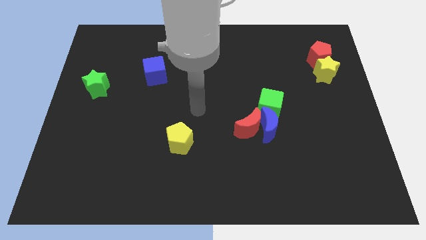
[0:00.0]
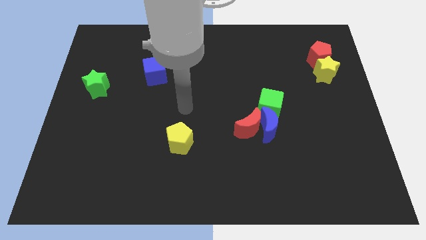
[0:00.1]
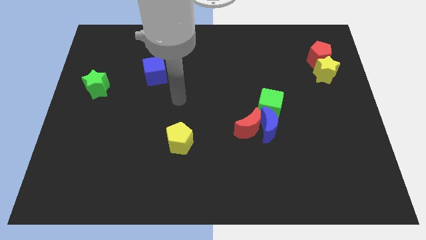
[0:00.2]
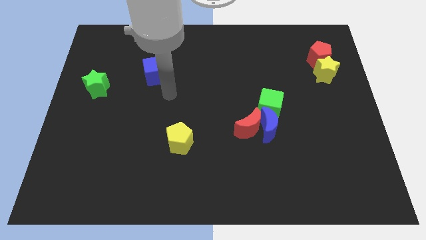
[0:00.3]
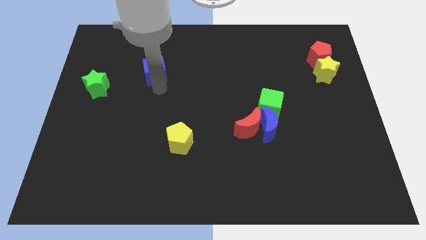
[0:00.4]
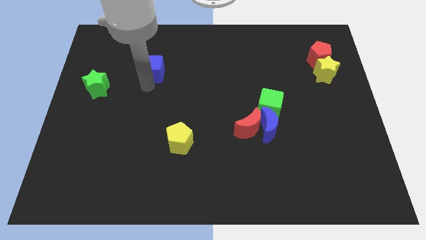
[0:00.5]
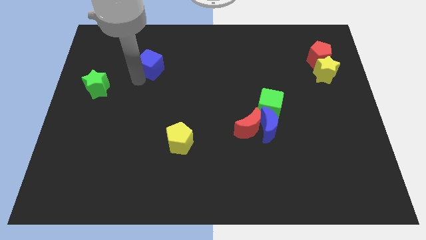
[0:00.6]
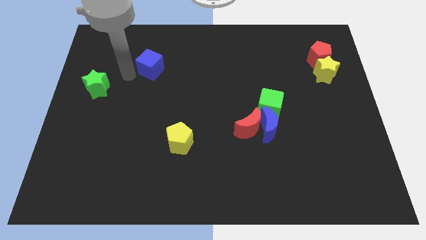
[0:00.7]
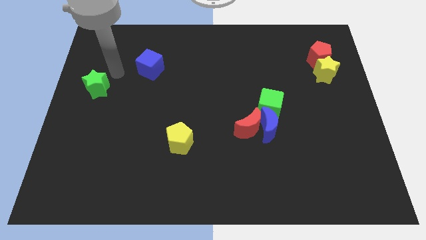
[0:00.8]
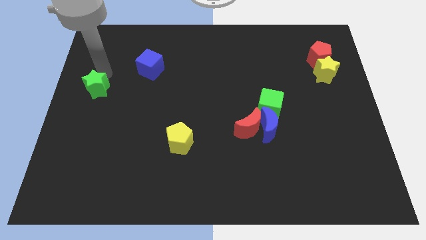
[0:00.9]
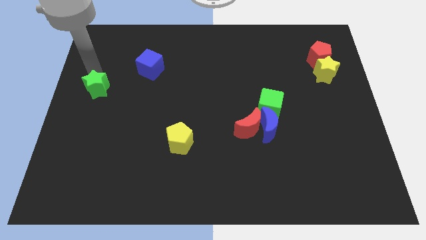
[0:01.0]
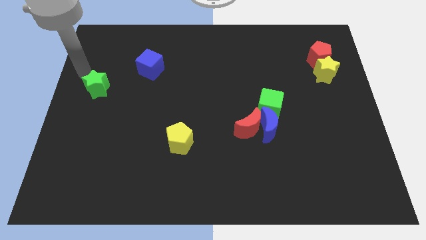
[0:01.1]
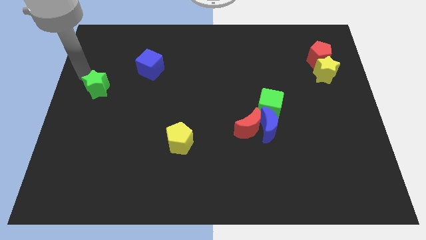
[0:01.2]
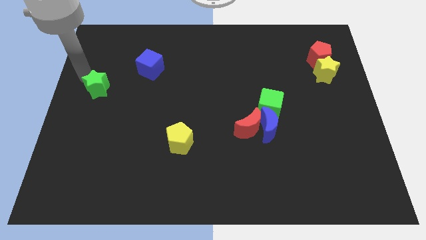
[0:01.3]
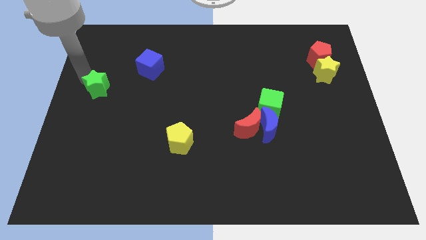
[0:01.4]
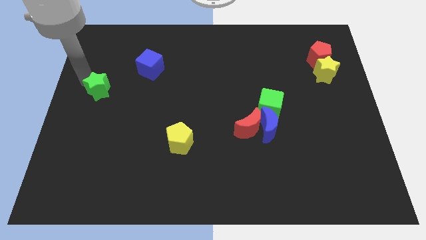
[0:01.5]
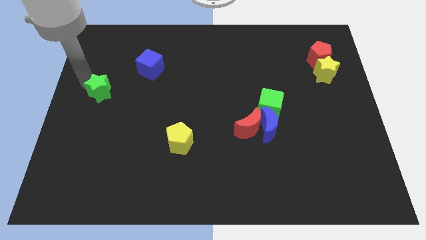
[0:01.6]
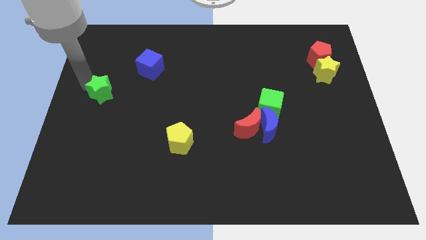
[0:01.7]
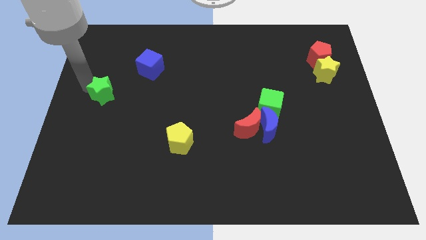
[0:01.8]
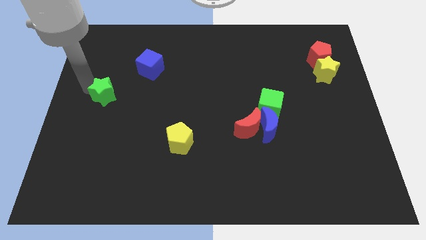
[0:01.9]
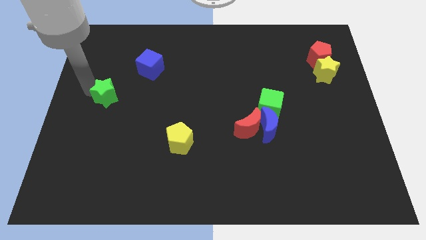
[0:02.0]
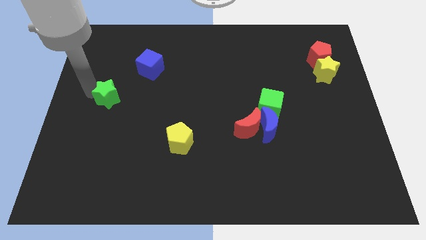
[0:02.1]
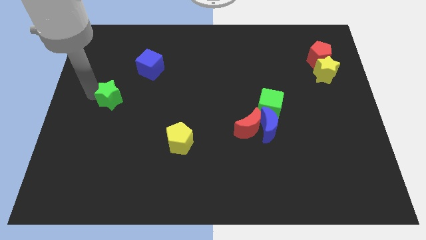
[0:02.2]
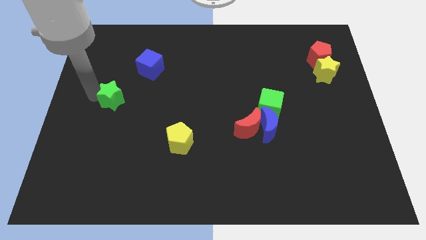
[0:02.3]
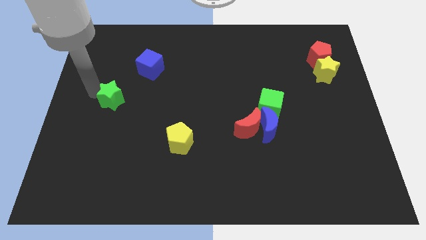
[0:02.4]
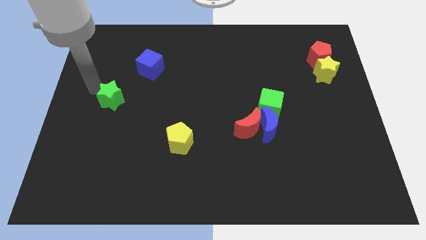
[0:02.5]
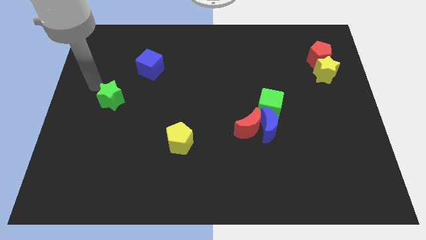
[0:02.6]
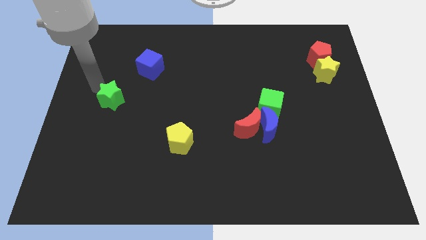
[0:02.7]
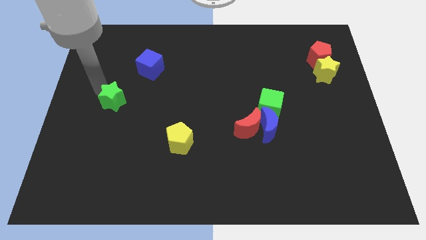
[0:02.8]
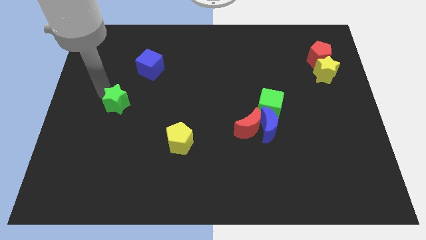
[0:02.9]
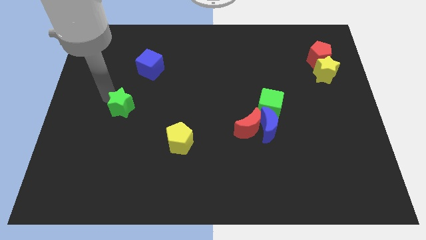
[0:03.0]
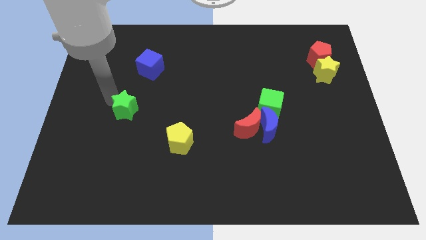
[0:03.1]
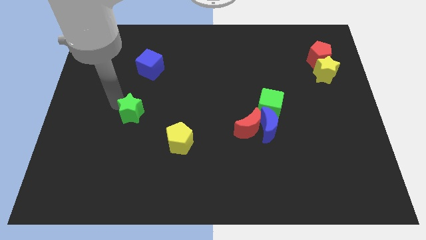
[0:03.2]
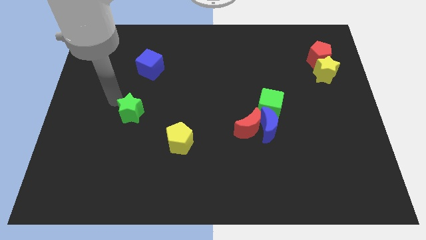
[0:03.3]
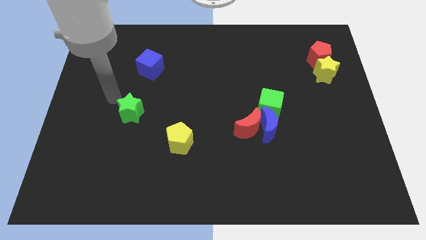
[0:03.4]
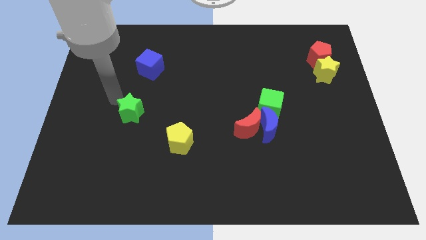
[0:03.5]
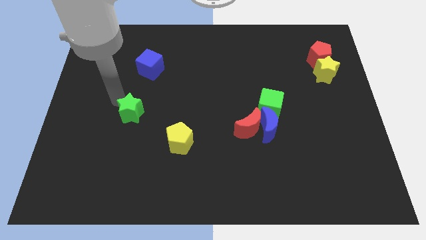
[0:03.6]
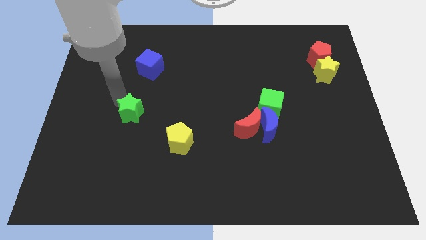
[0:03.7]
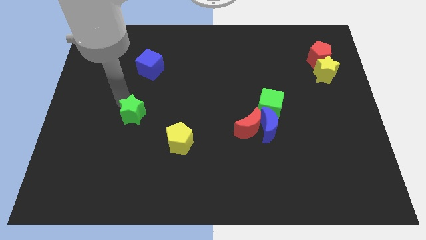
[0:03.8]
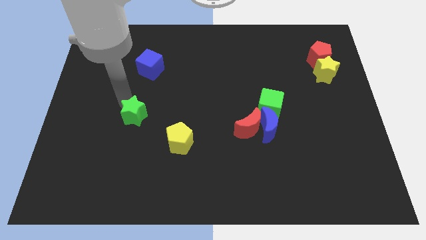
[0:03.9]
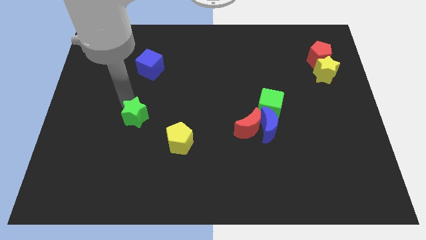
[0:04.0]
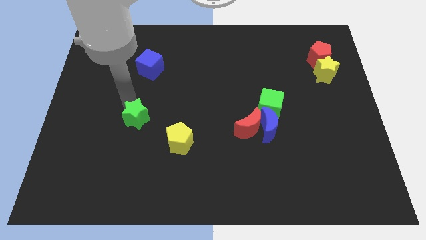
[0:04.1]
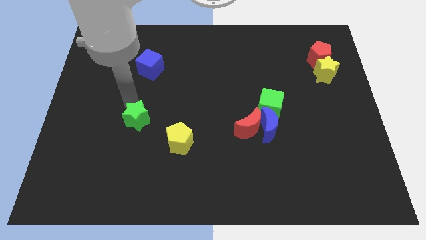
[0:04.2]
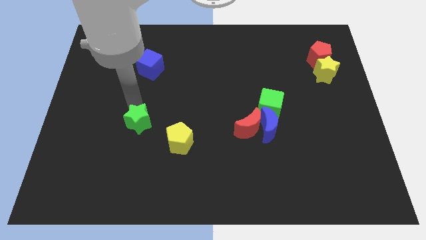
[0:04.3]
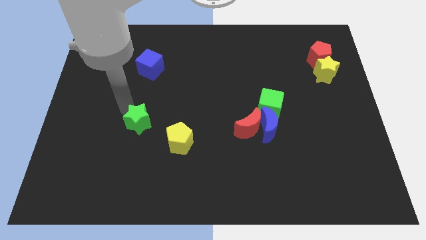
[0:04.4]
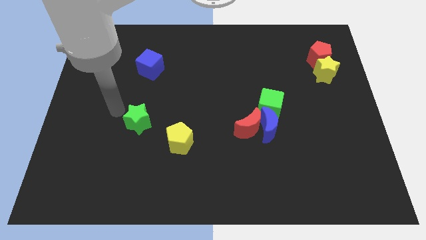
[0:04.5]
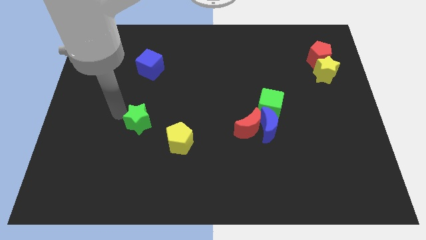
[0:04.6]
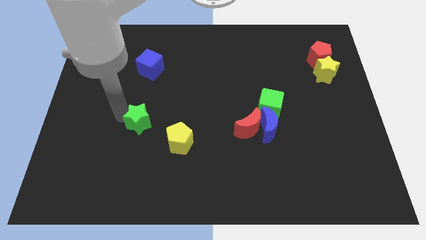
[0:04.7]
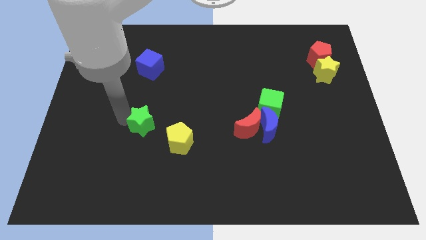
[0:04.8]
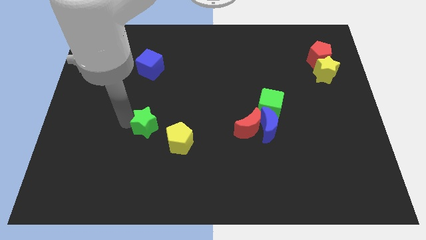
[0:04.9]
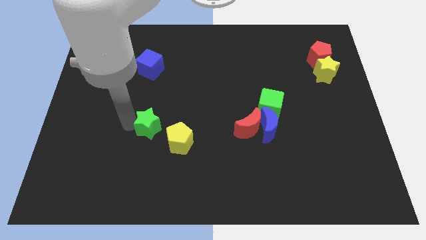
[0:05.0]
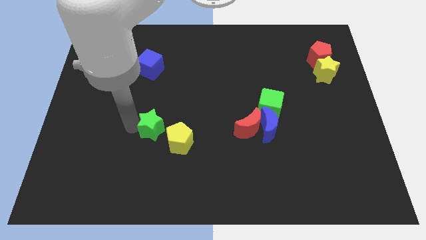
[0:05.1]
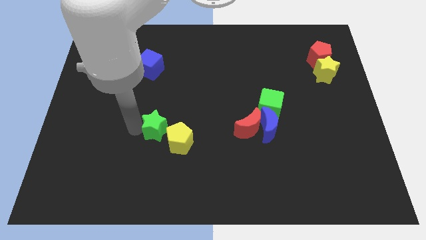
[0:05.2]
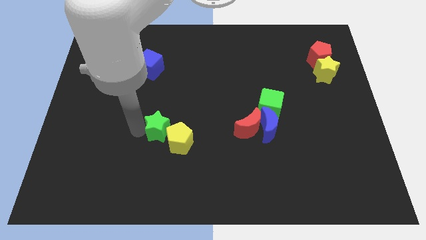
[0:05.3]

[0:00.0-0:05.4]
push the green star to the yellow pentagon
